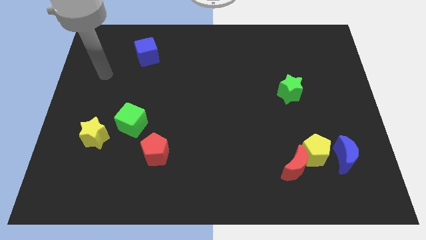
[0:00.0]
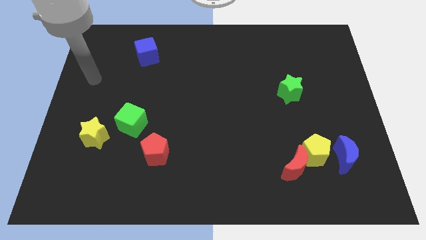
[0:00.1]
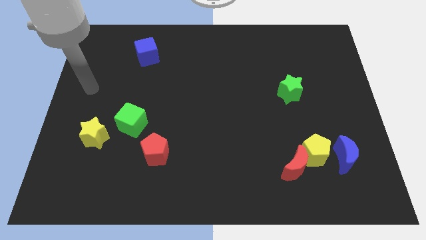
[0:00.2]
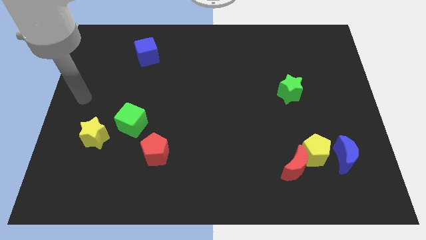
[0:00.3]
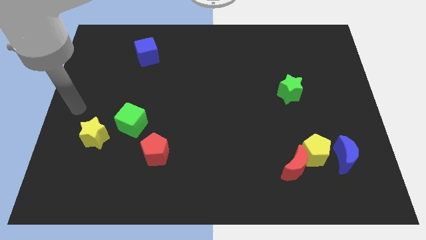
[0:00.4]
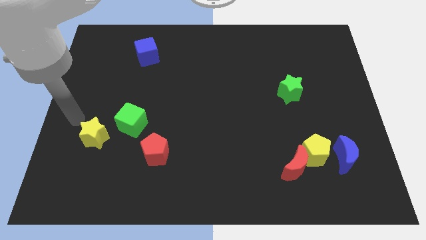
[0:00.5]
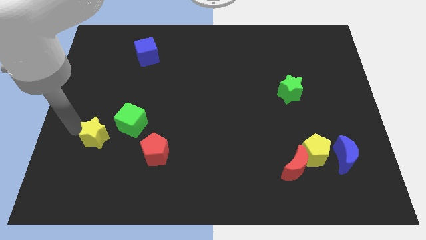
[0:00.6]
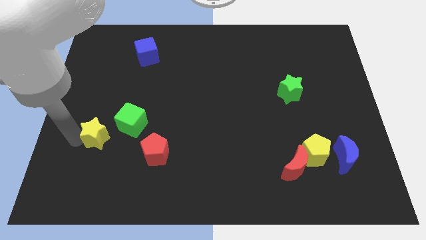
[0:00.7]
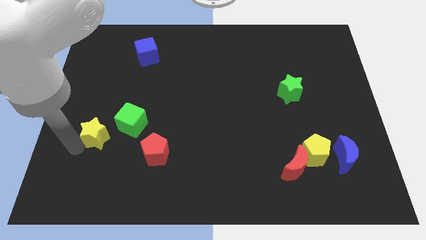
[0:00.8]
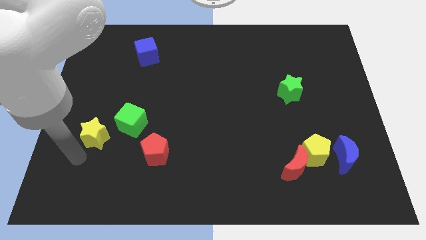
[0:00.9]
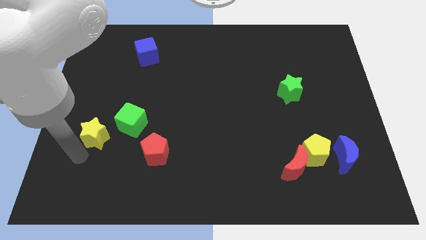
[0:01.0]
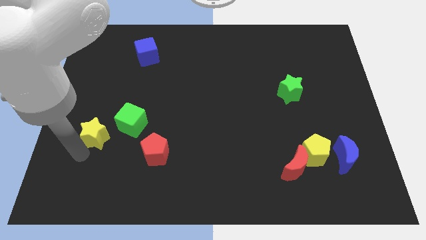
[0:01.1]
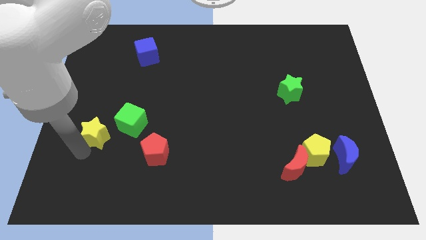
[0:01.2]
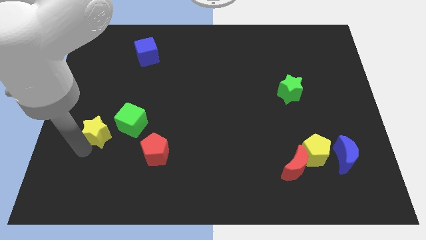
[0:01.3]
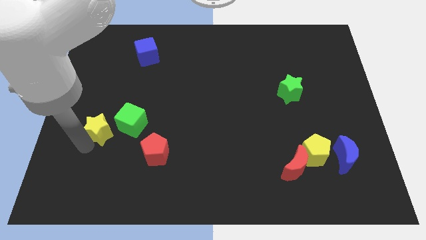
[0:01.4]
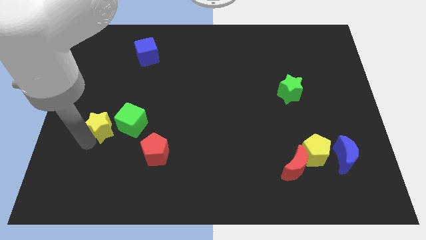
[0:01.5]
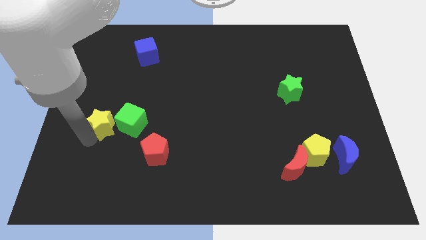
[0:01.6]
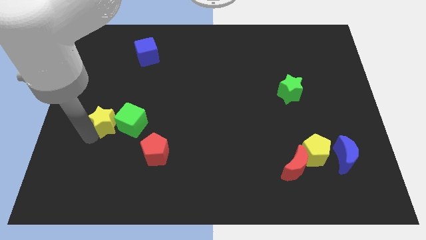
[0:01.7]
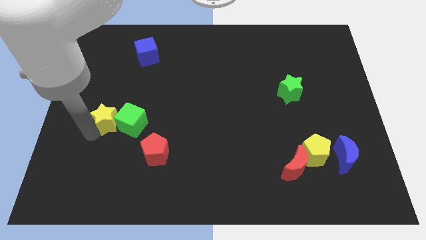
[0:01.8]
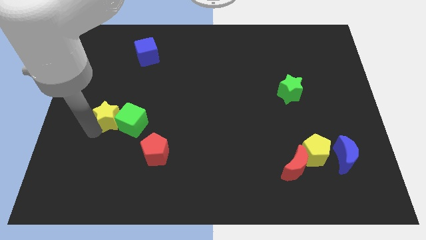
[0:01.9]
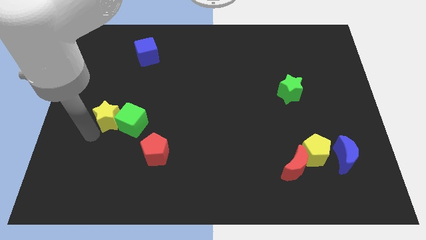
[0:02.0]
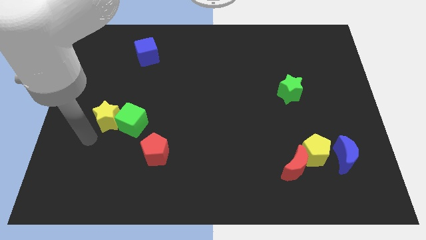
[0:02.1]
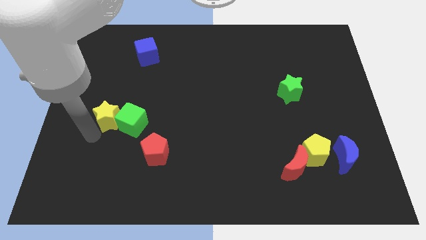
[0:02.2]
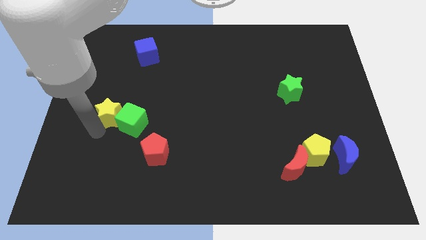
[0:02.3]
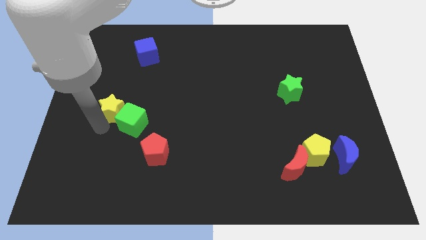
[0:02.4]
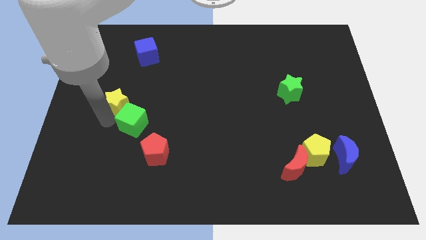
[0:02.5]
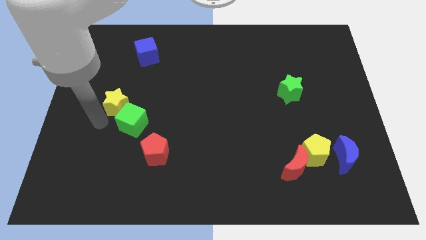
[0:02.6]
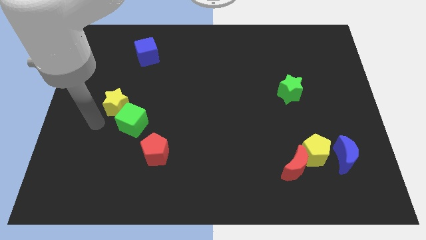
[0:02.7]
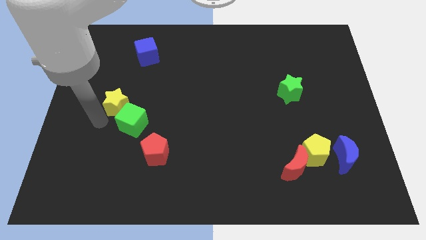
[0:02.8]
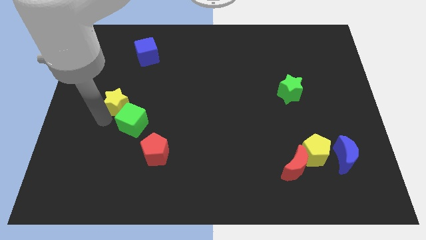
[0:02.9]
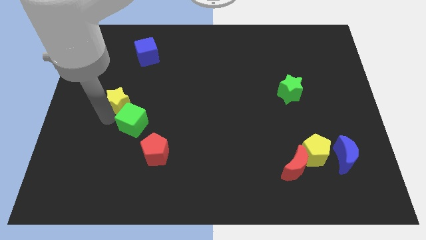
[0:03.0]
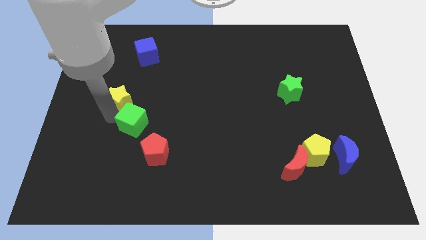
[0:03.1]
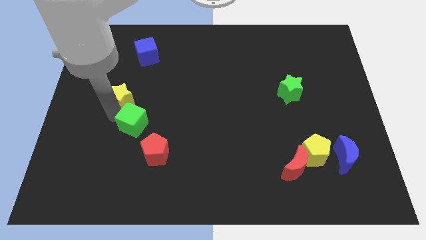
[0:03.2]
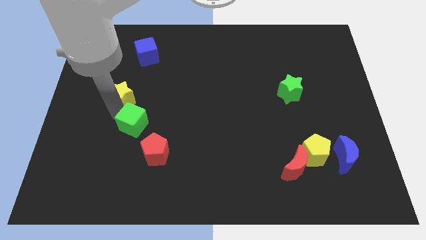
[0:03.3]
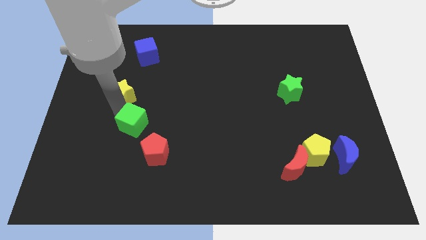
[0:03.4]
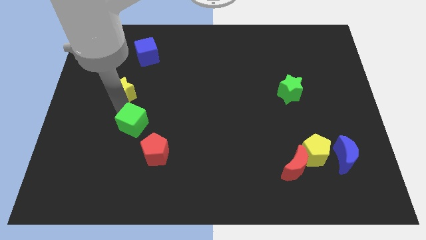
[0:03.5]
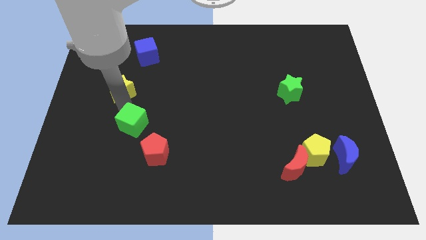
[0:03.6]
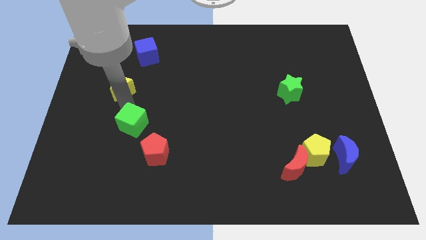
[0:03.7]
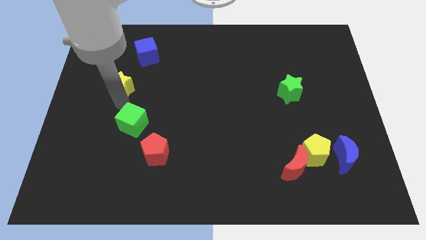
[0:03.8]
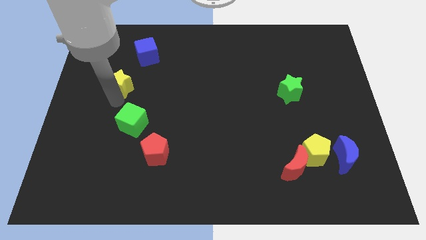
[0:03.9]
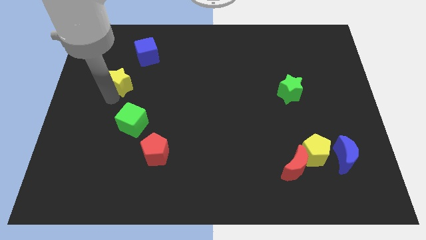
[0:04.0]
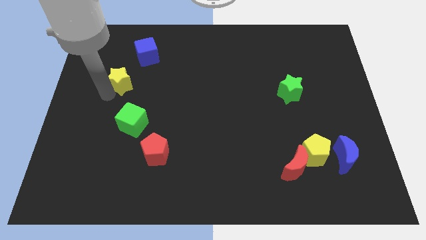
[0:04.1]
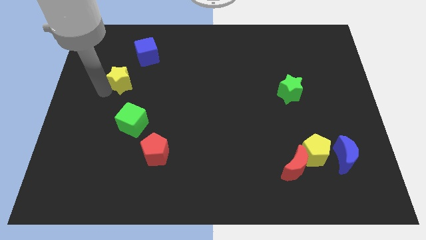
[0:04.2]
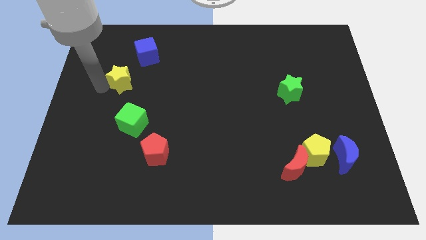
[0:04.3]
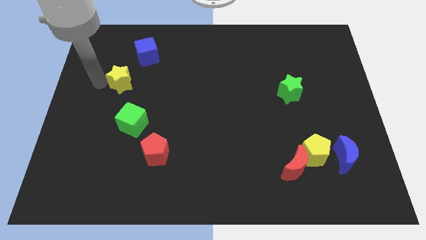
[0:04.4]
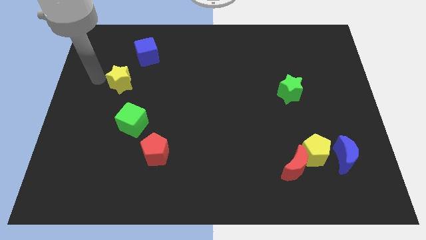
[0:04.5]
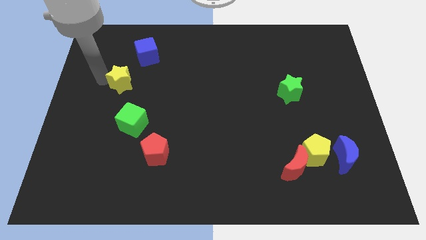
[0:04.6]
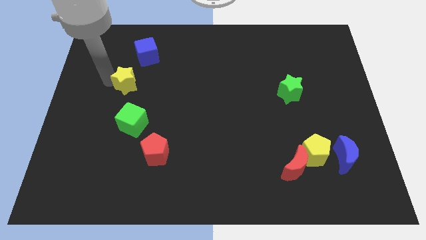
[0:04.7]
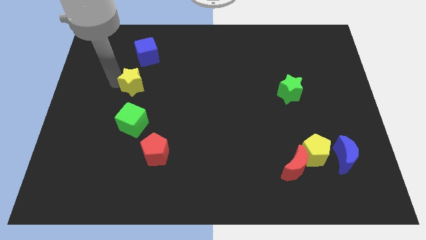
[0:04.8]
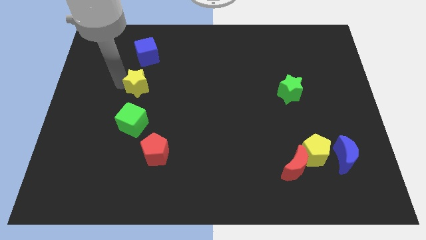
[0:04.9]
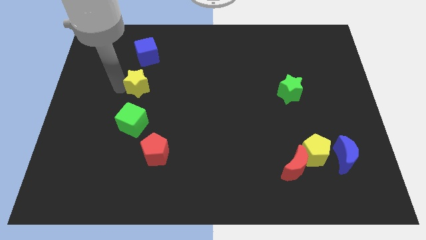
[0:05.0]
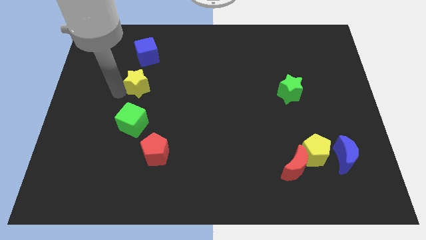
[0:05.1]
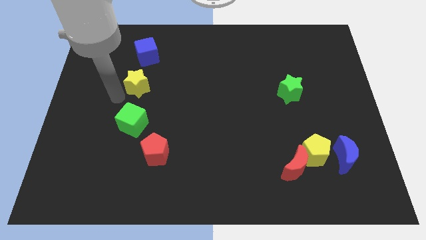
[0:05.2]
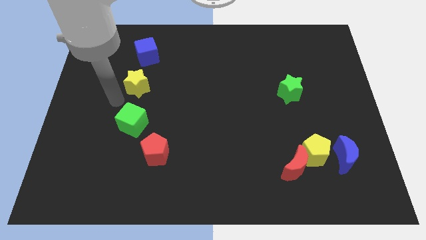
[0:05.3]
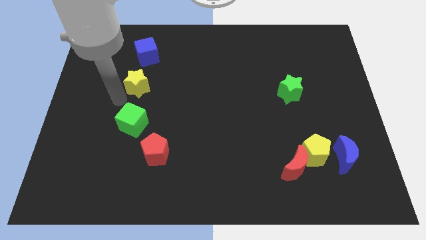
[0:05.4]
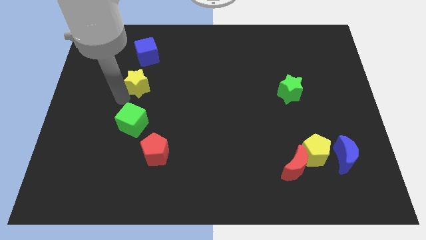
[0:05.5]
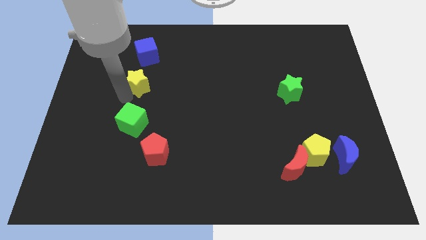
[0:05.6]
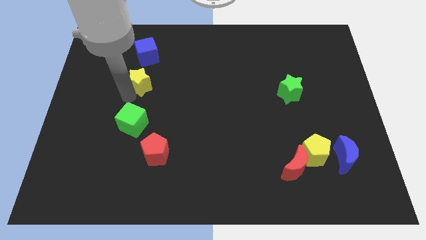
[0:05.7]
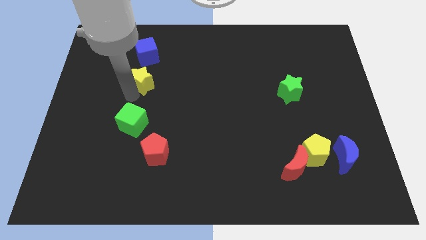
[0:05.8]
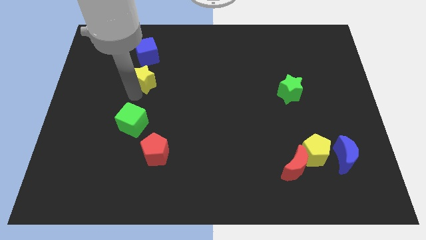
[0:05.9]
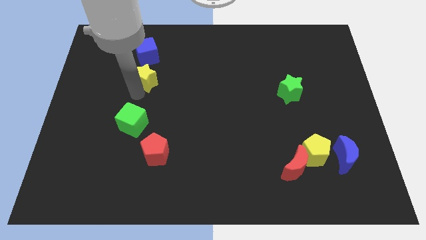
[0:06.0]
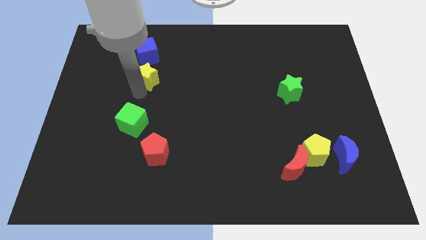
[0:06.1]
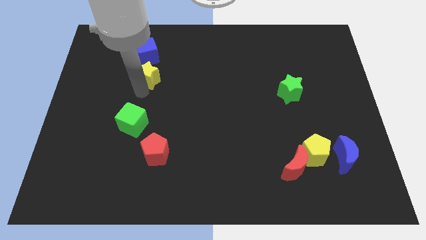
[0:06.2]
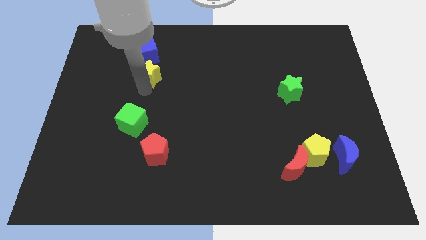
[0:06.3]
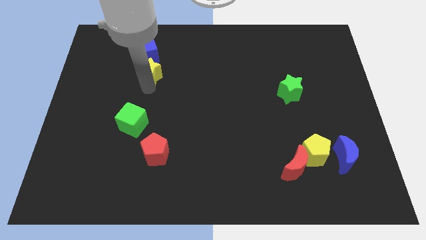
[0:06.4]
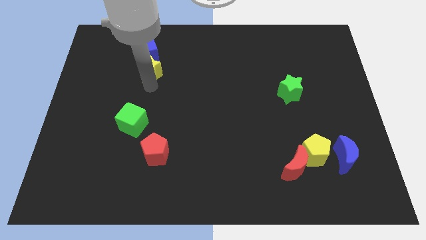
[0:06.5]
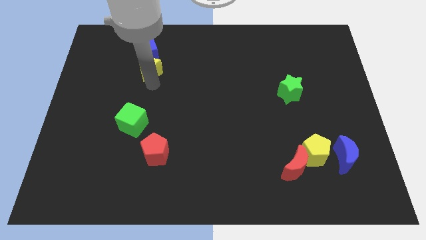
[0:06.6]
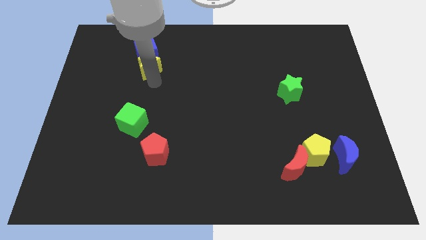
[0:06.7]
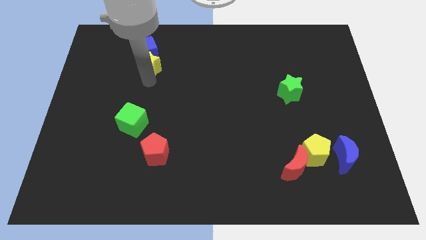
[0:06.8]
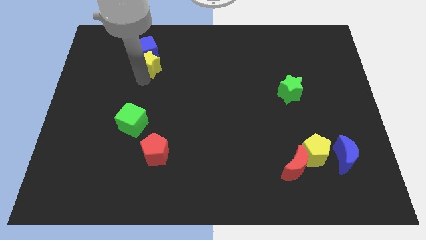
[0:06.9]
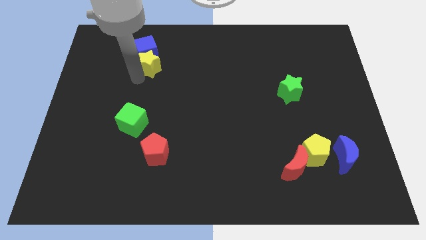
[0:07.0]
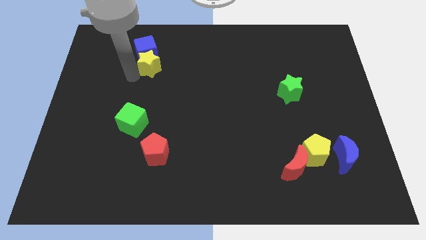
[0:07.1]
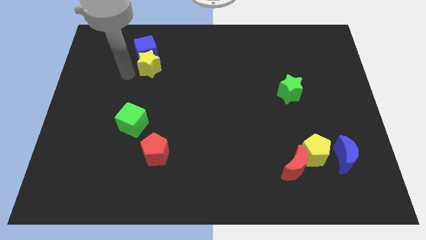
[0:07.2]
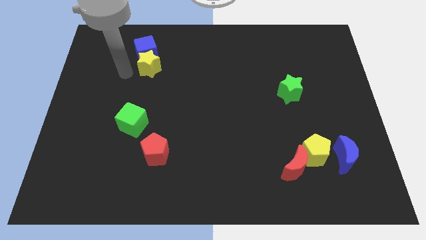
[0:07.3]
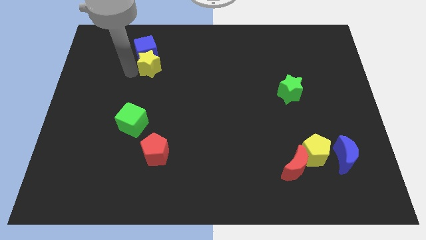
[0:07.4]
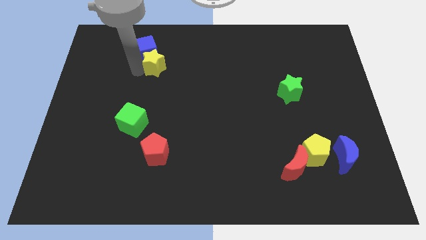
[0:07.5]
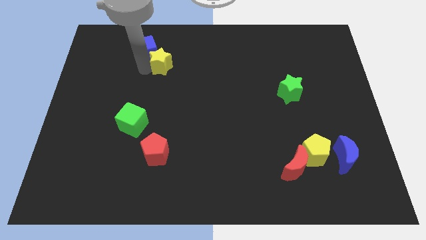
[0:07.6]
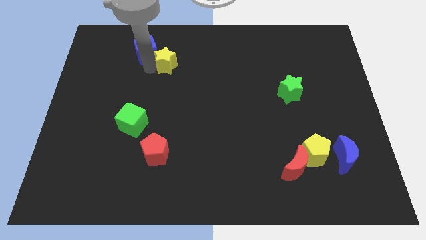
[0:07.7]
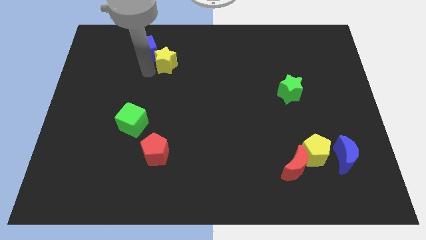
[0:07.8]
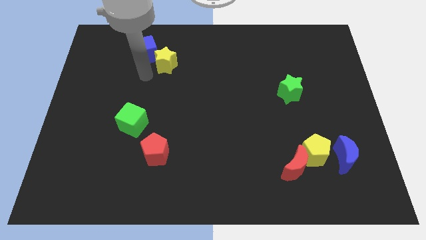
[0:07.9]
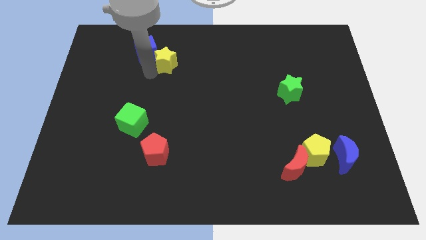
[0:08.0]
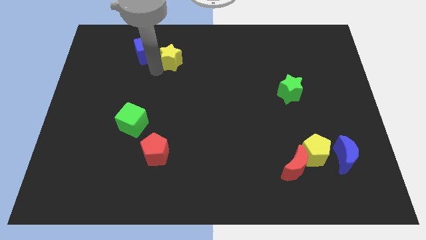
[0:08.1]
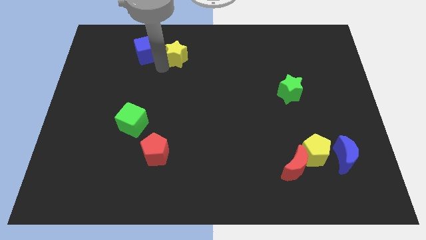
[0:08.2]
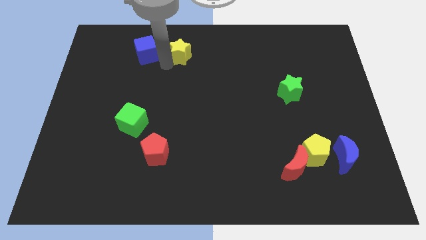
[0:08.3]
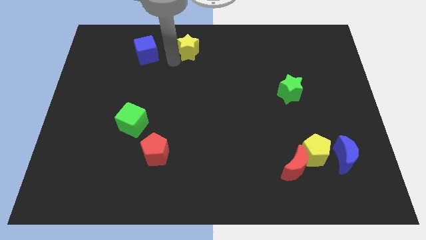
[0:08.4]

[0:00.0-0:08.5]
move the yellow star to the top side
